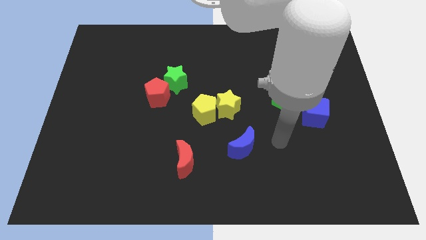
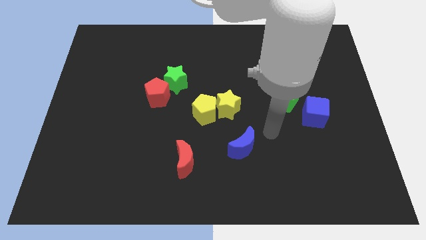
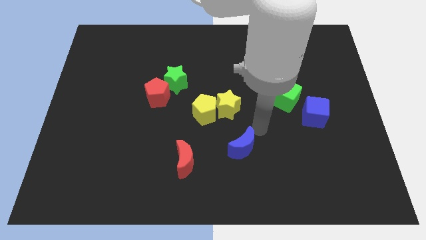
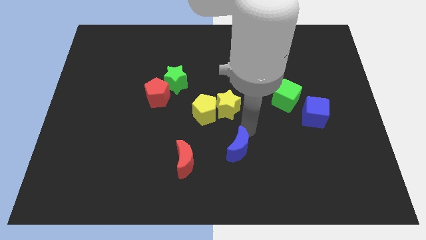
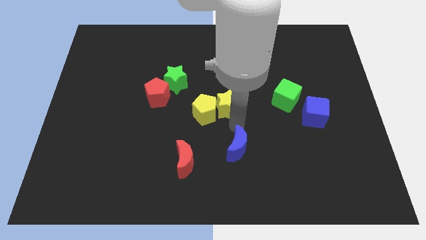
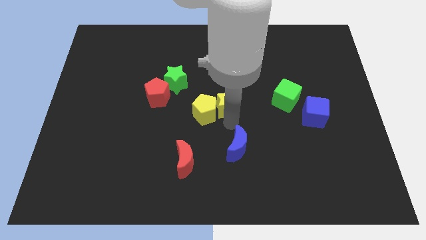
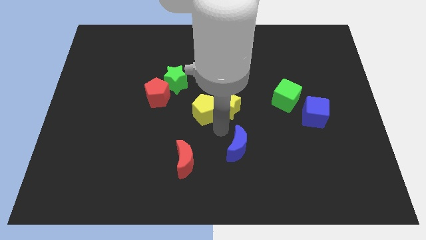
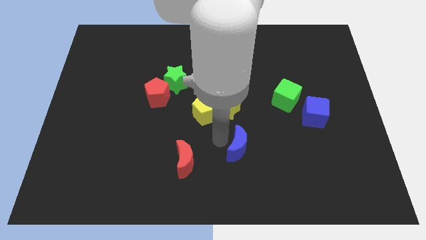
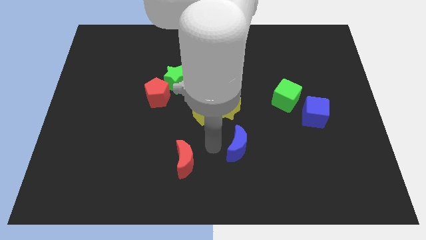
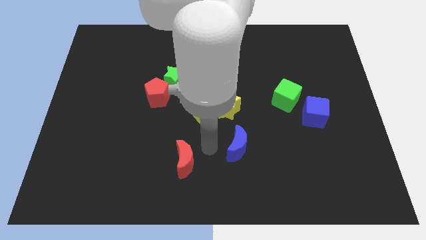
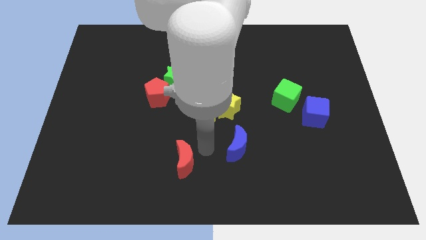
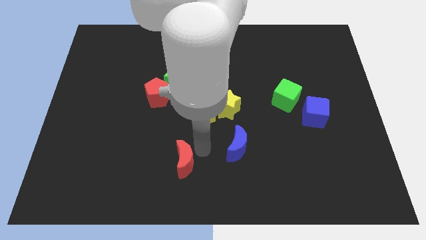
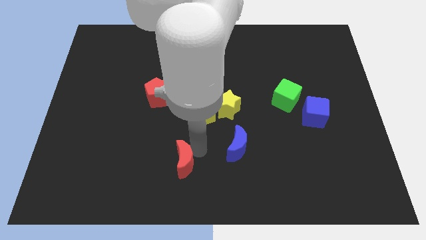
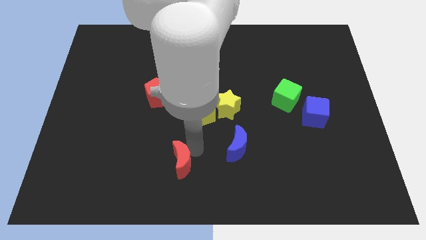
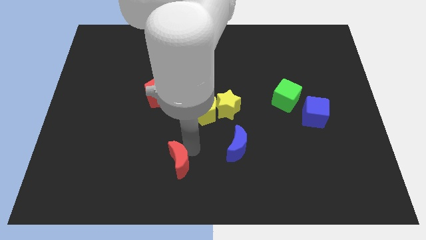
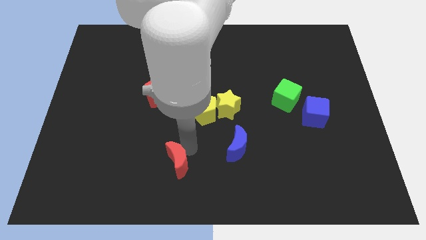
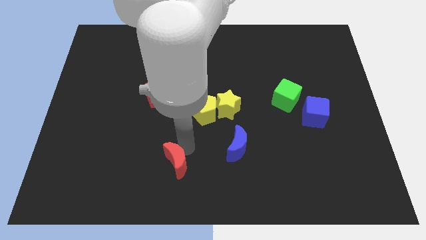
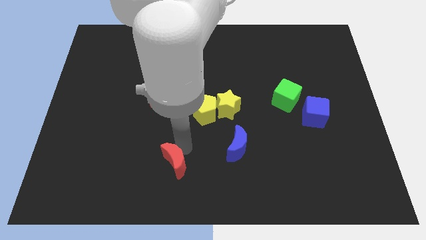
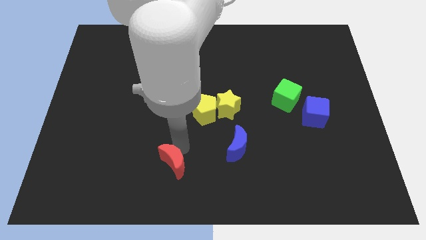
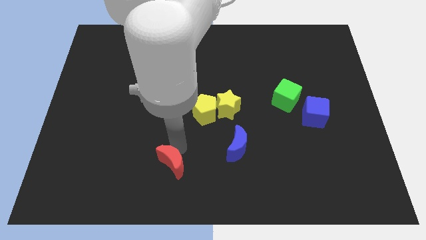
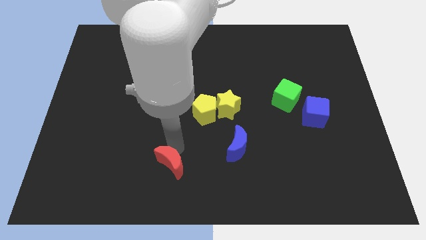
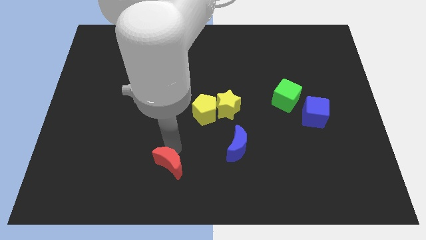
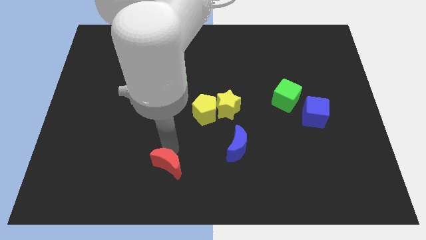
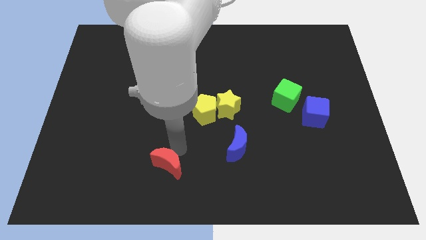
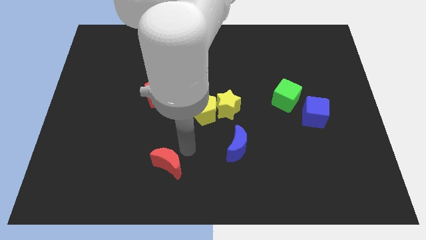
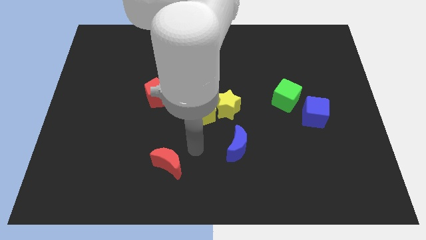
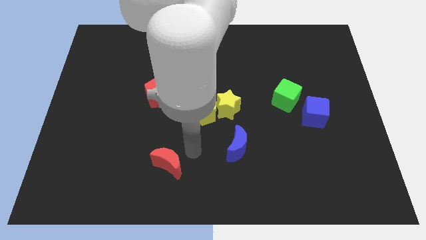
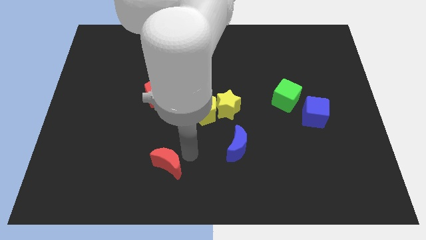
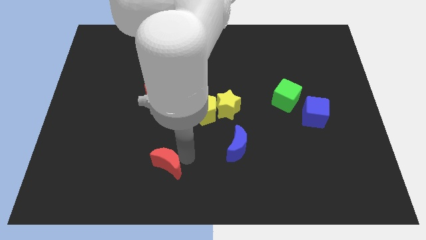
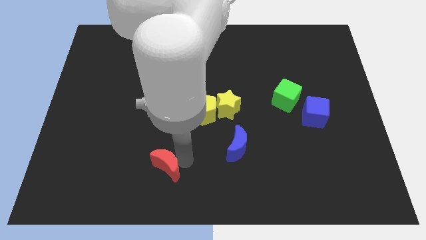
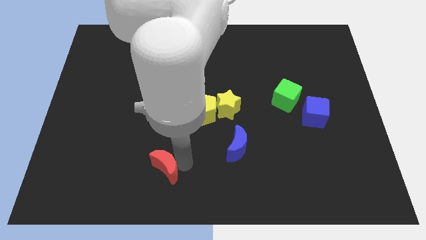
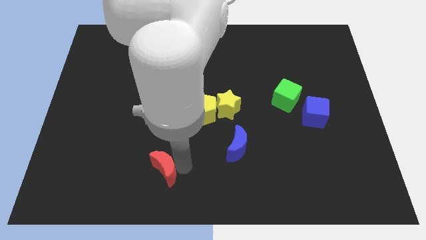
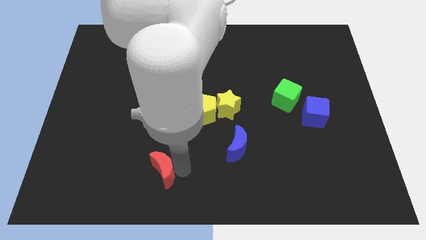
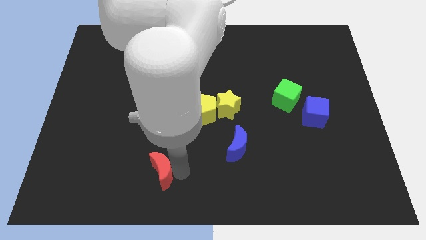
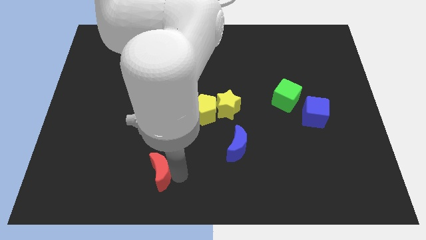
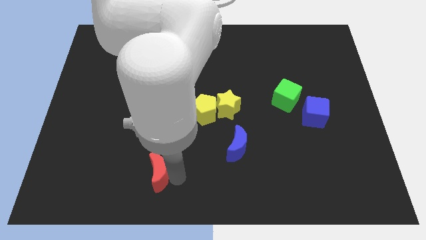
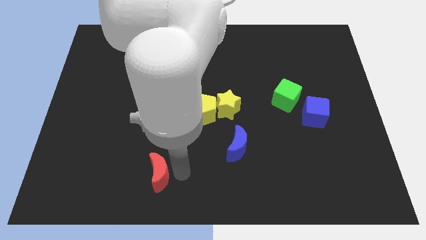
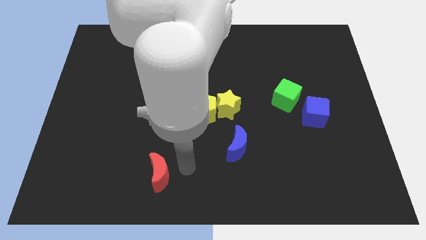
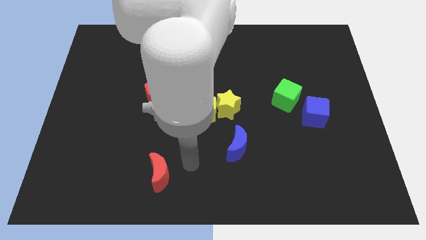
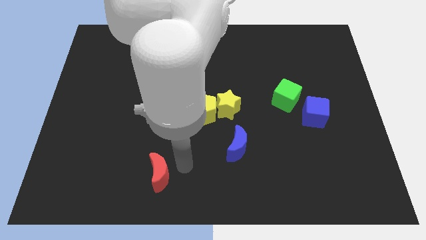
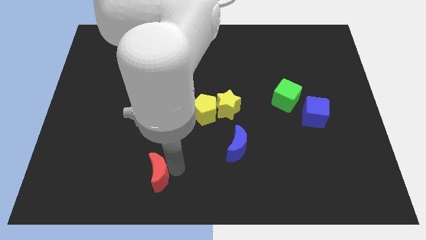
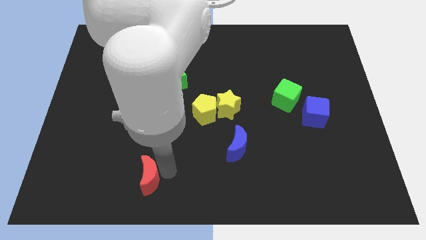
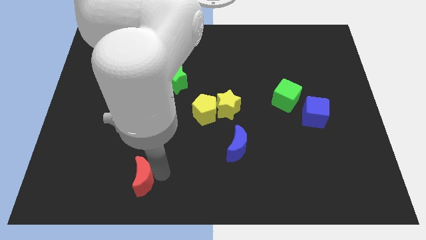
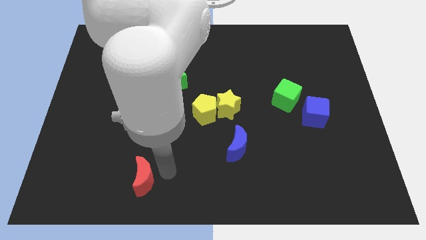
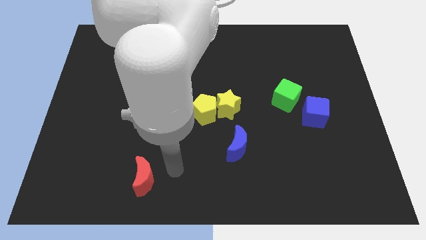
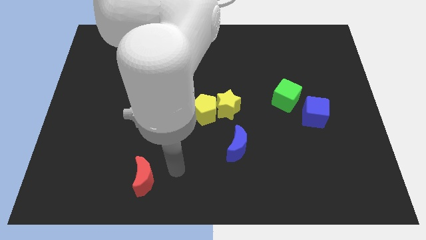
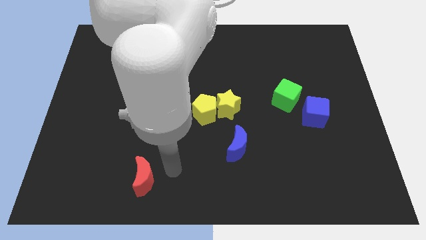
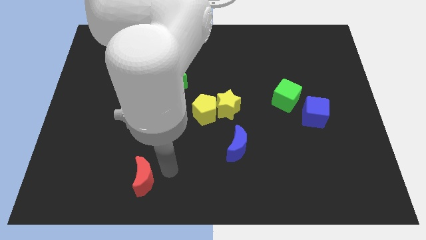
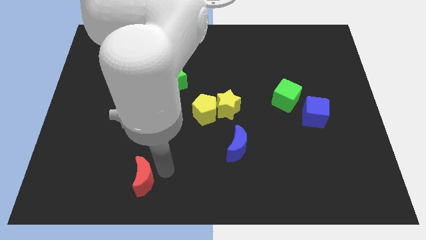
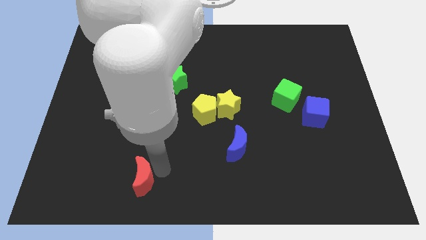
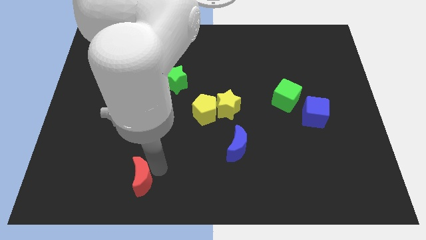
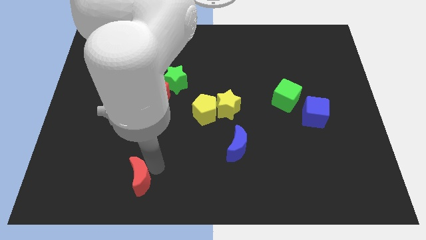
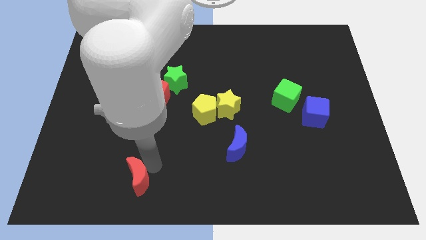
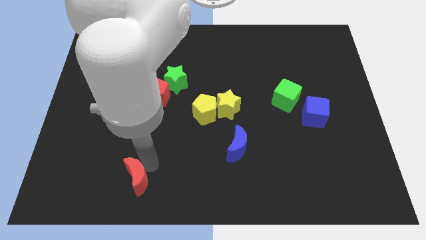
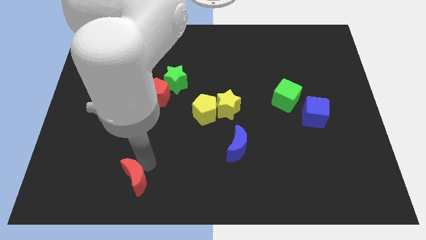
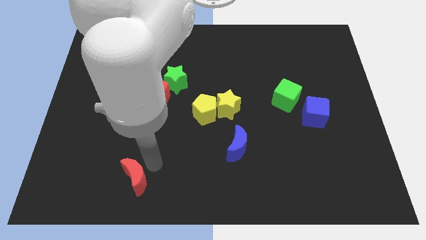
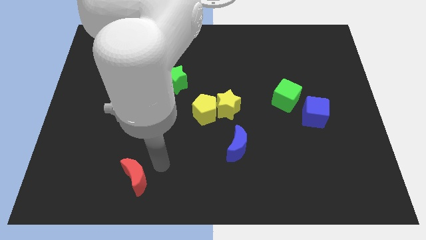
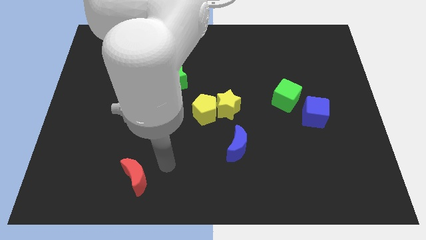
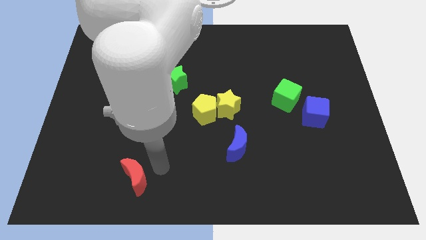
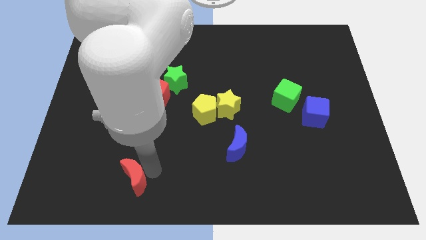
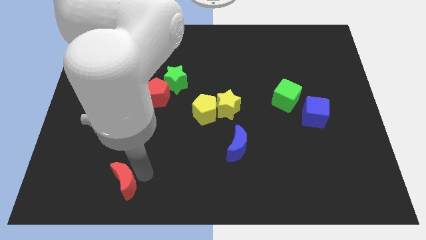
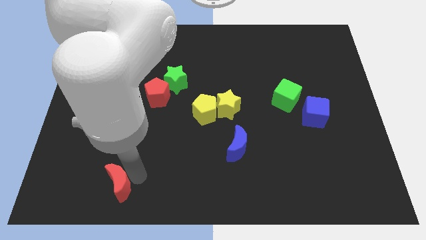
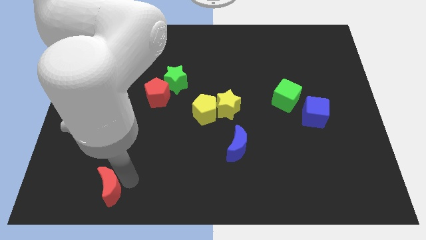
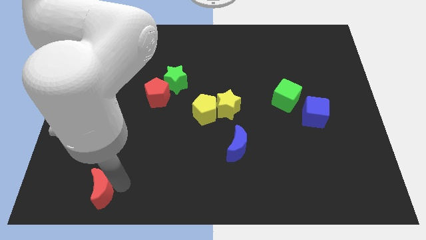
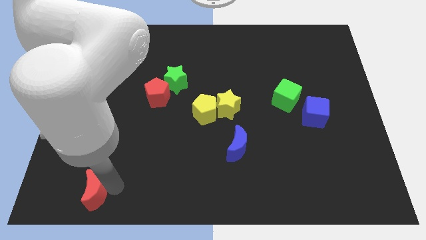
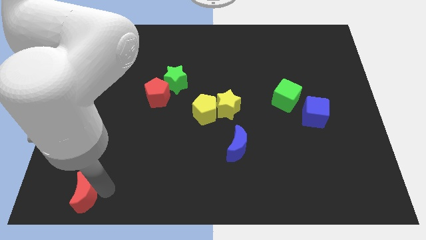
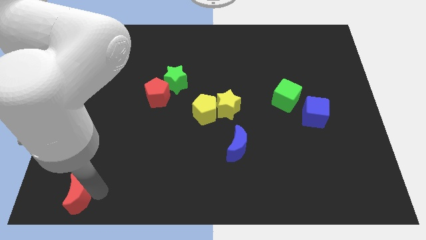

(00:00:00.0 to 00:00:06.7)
slide the red moon to the bottom left corner

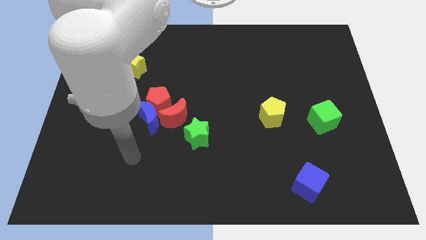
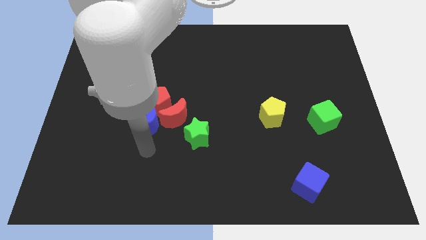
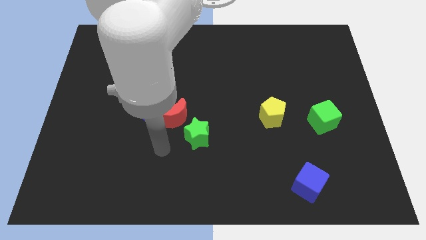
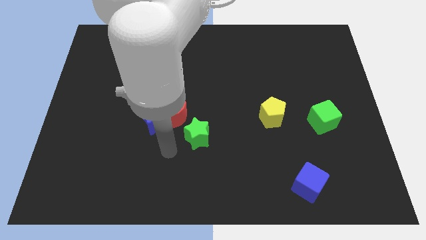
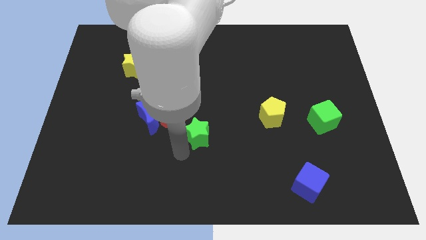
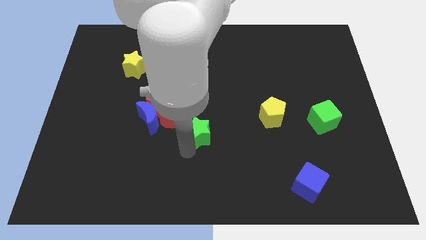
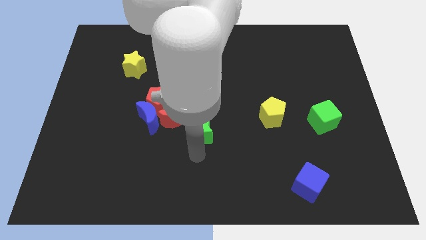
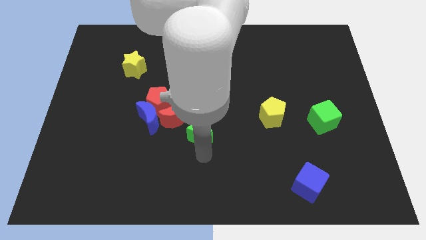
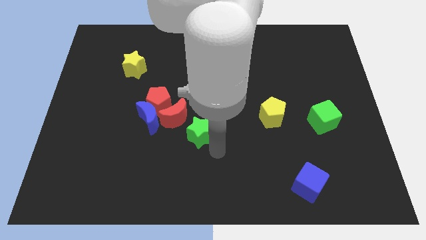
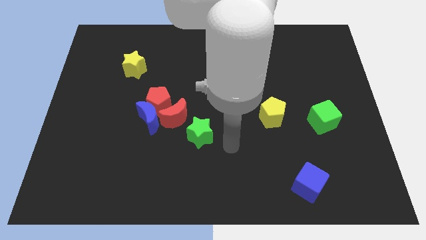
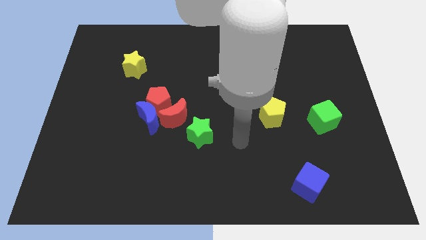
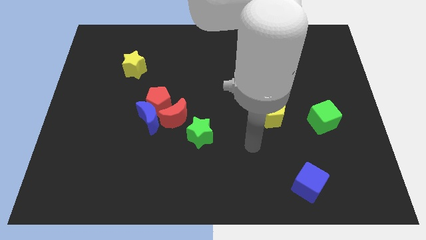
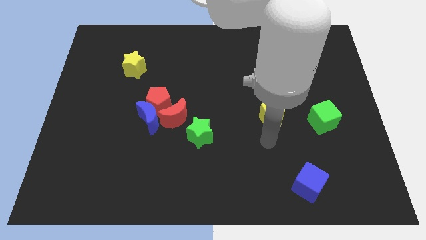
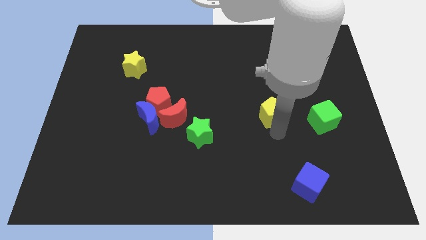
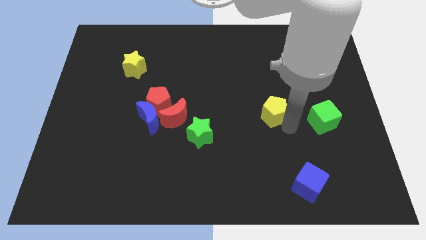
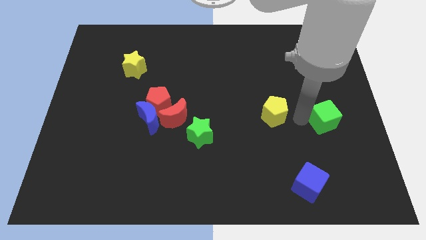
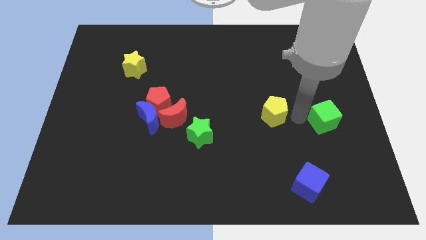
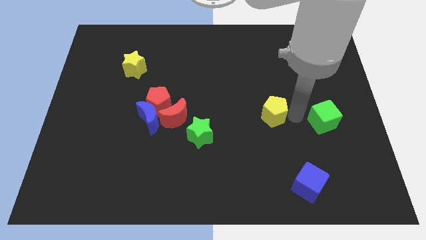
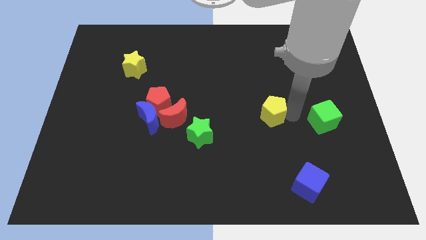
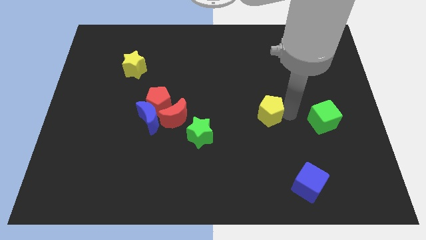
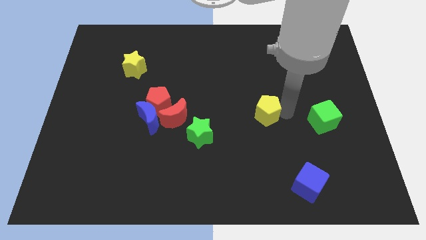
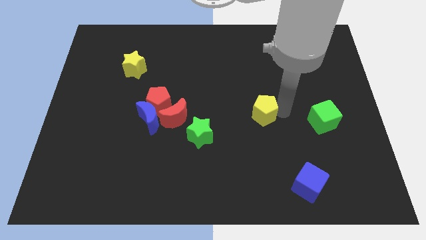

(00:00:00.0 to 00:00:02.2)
move the yellow pentagon to the middle
